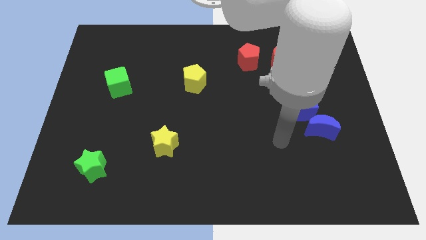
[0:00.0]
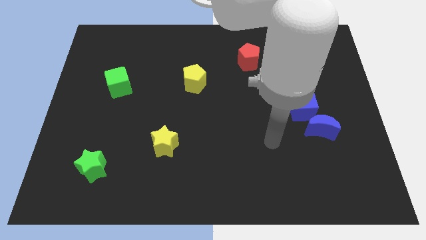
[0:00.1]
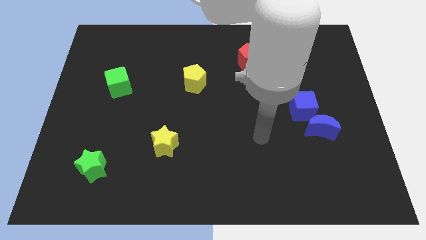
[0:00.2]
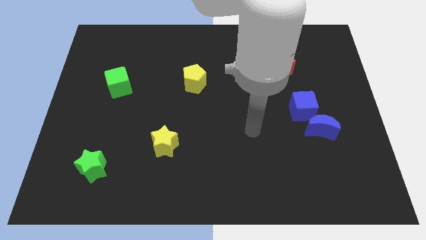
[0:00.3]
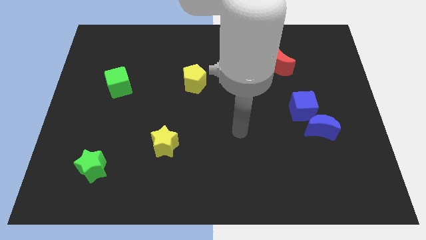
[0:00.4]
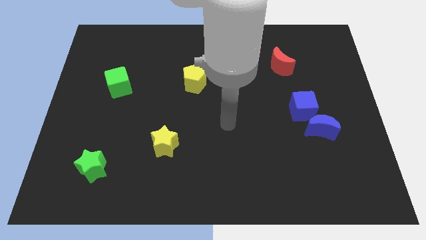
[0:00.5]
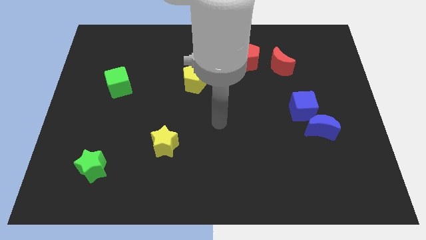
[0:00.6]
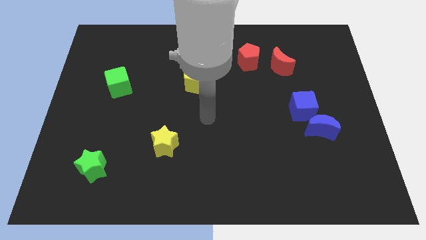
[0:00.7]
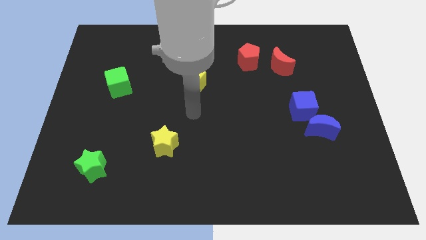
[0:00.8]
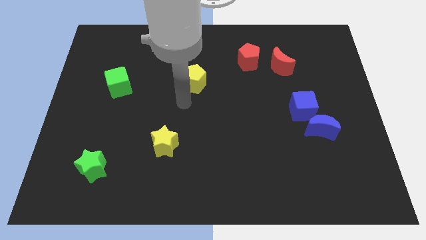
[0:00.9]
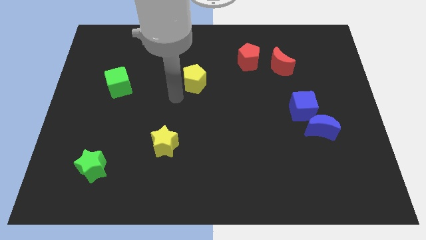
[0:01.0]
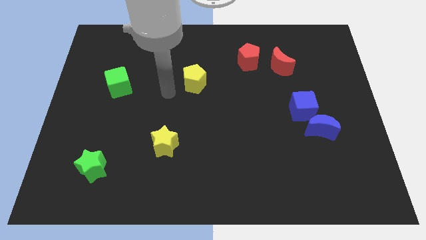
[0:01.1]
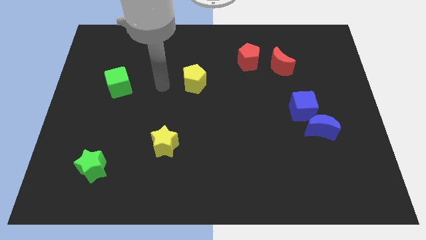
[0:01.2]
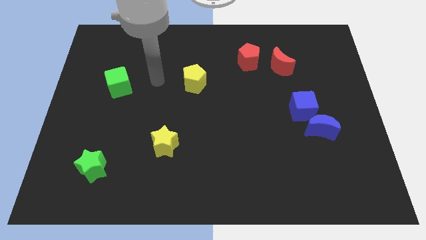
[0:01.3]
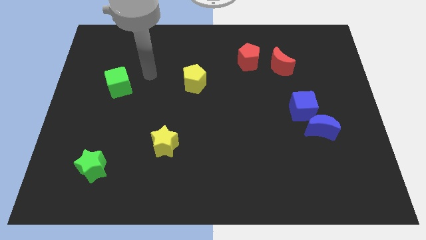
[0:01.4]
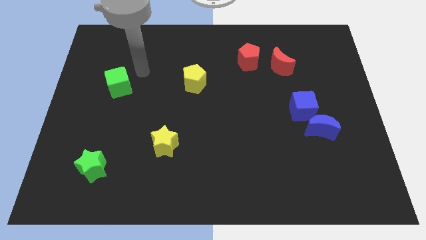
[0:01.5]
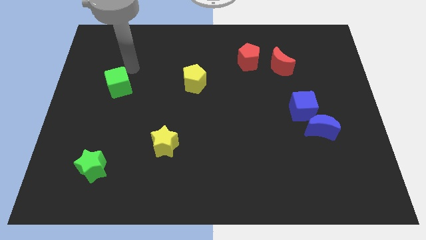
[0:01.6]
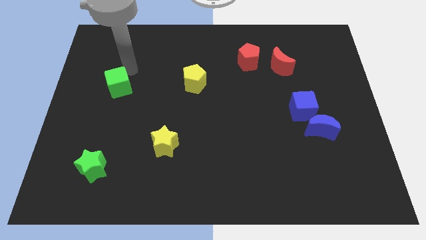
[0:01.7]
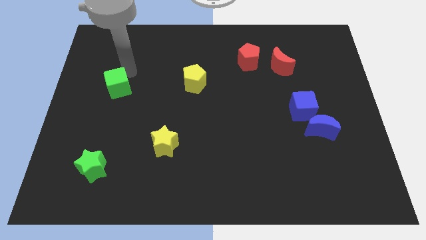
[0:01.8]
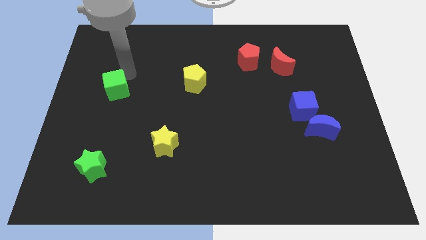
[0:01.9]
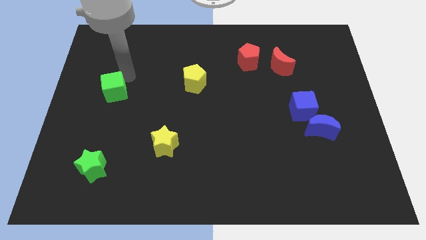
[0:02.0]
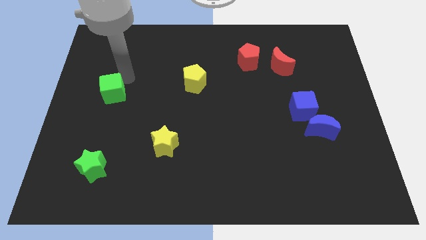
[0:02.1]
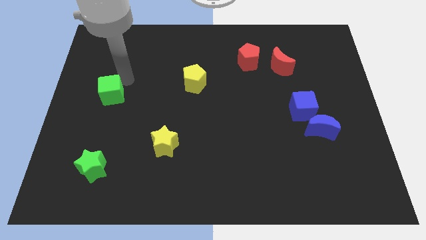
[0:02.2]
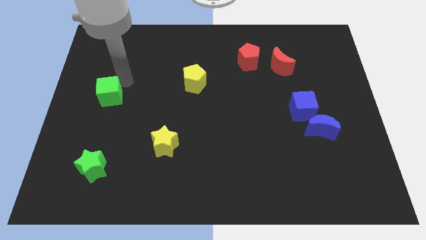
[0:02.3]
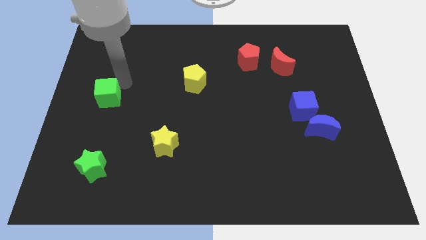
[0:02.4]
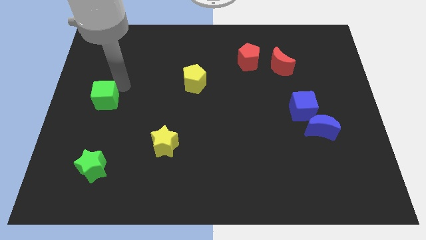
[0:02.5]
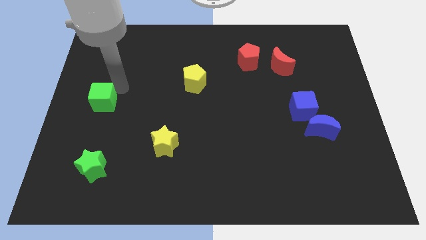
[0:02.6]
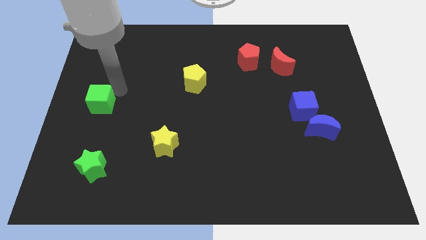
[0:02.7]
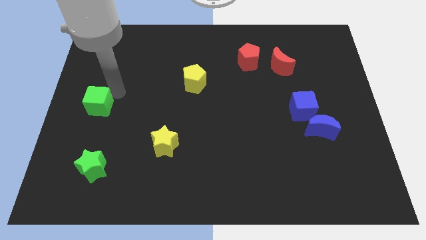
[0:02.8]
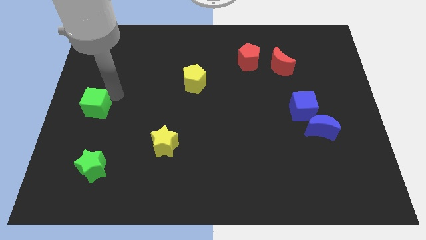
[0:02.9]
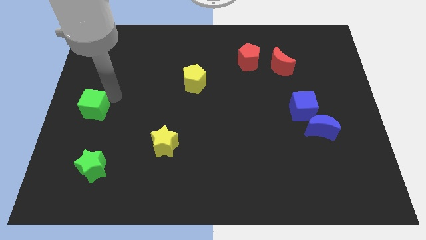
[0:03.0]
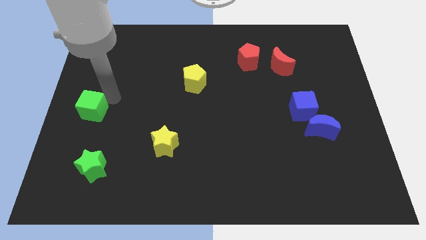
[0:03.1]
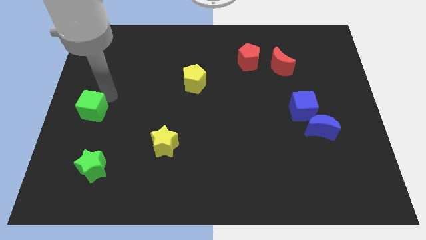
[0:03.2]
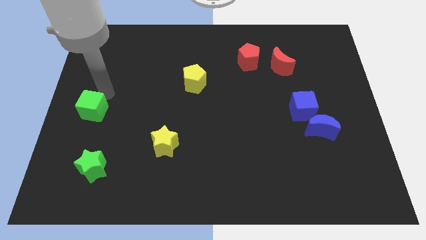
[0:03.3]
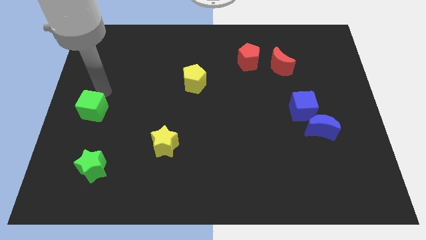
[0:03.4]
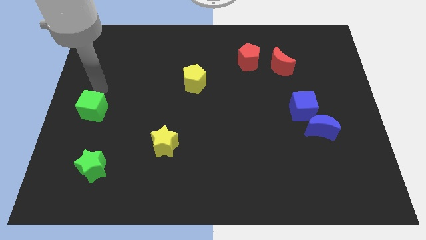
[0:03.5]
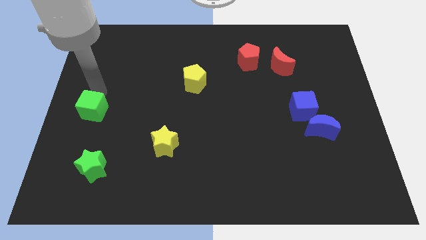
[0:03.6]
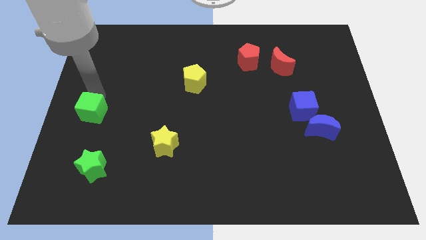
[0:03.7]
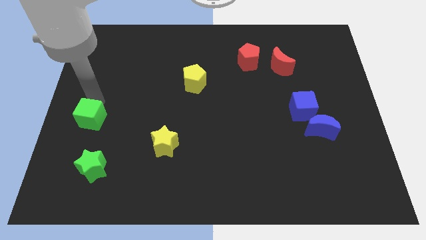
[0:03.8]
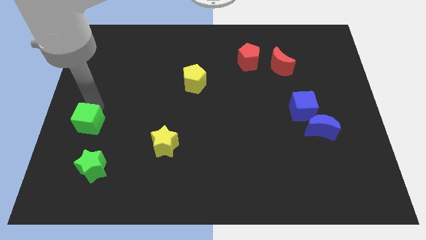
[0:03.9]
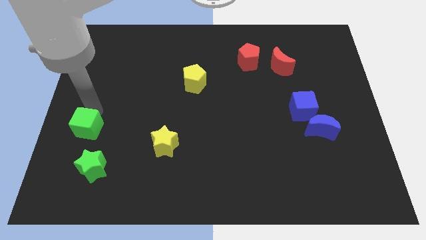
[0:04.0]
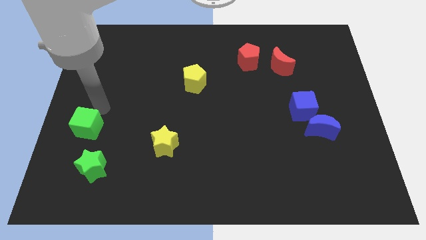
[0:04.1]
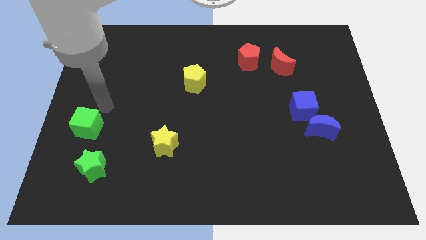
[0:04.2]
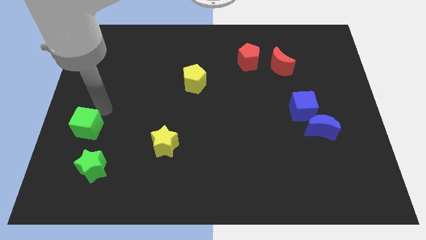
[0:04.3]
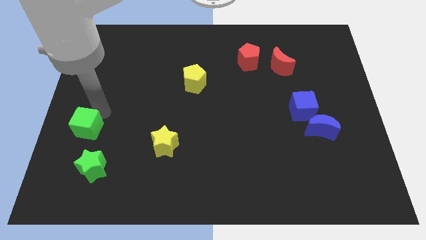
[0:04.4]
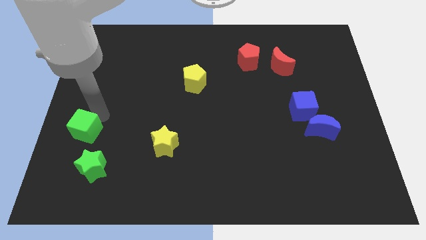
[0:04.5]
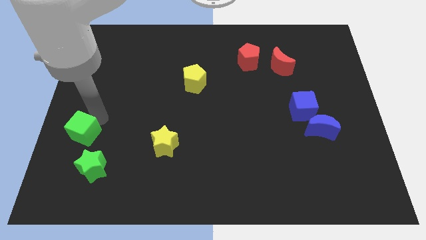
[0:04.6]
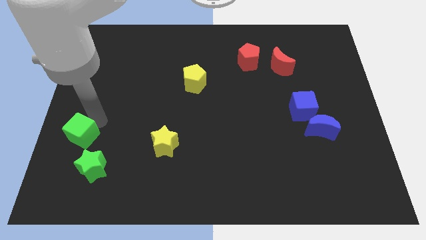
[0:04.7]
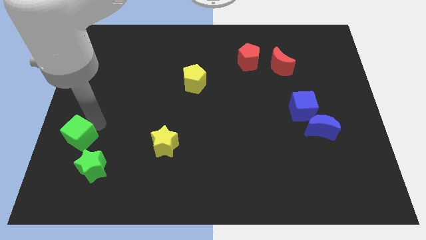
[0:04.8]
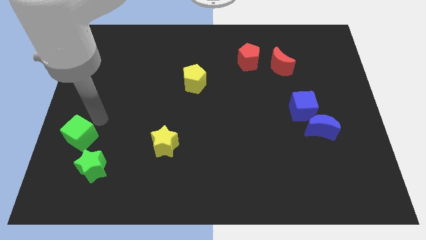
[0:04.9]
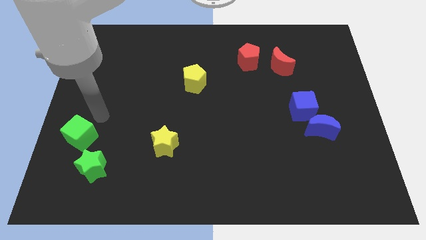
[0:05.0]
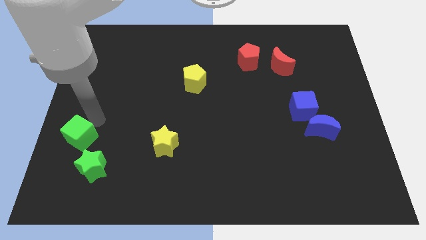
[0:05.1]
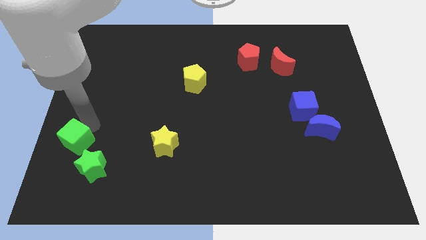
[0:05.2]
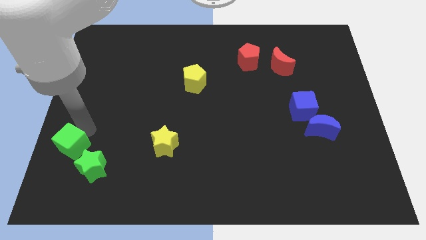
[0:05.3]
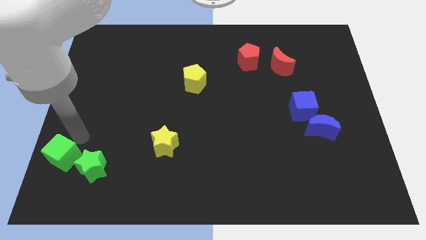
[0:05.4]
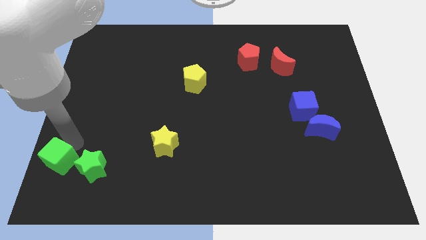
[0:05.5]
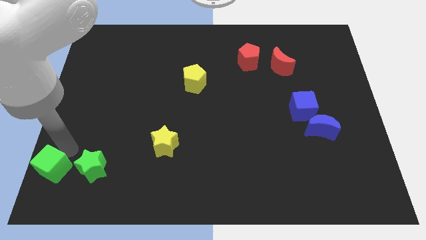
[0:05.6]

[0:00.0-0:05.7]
move the green cube to the bottom left corner
